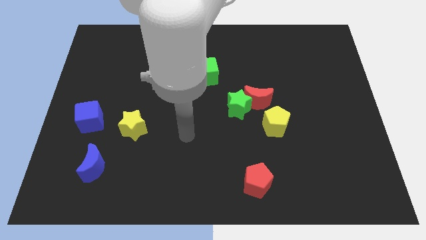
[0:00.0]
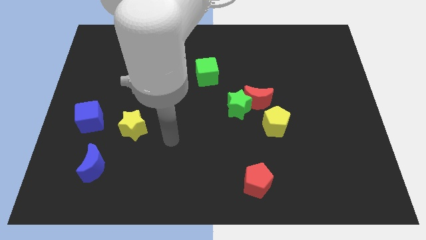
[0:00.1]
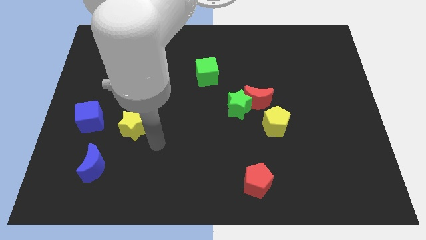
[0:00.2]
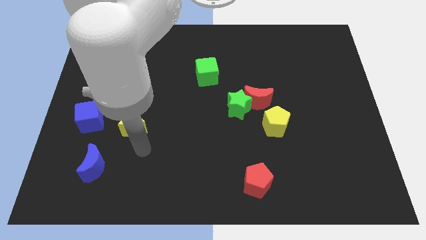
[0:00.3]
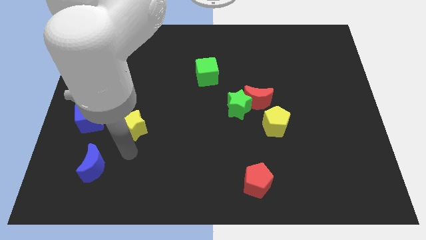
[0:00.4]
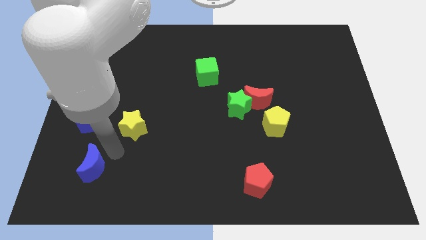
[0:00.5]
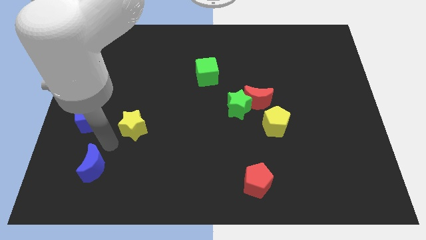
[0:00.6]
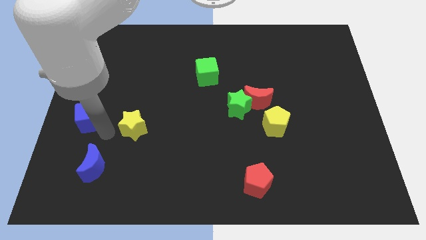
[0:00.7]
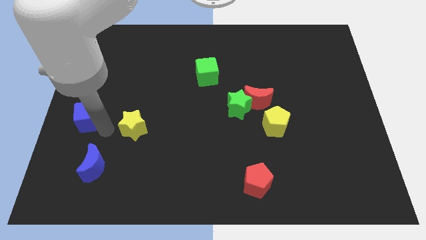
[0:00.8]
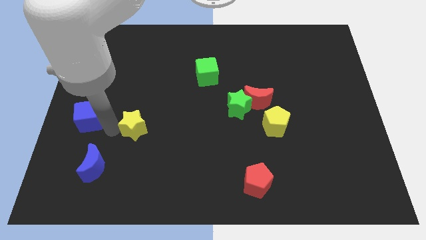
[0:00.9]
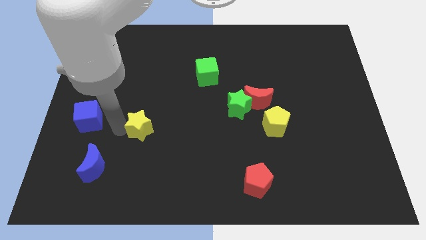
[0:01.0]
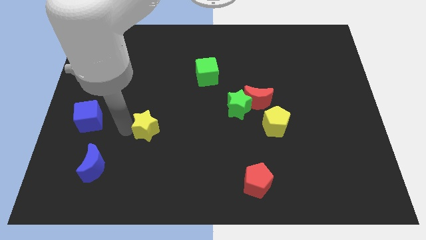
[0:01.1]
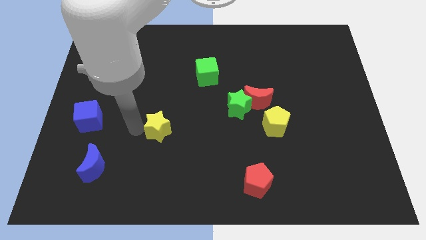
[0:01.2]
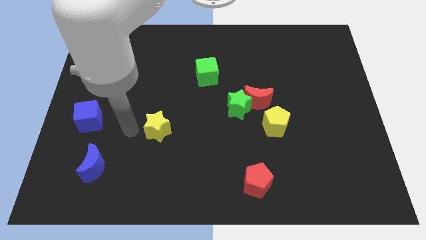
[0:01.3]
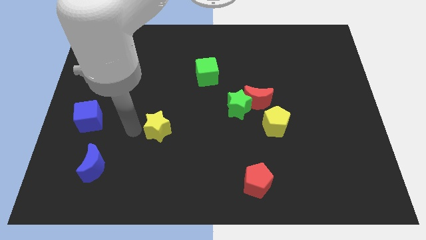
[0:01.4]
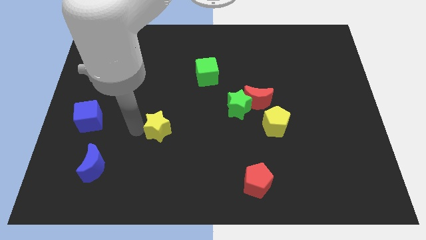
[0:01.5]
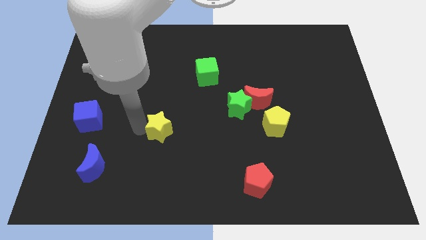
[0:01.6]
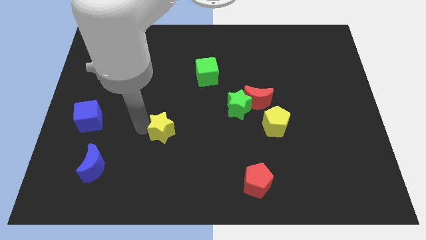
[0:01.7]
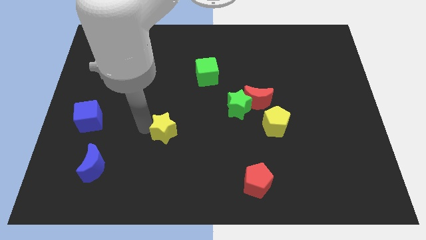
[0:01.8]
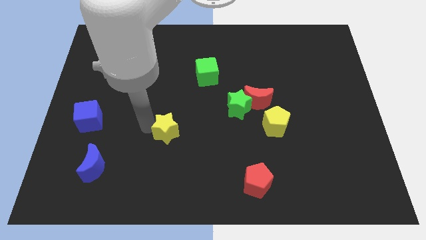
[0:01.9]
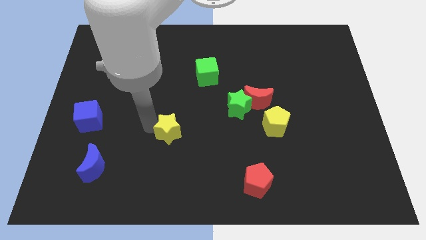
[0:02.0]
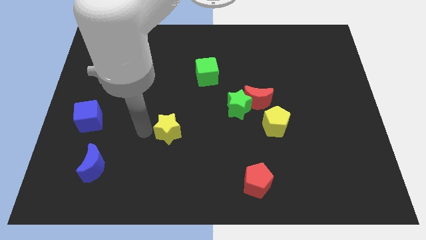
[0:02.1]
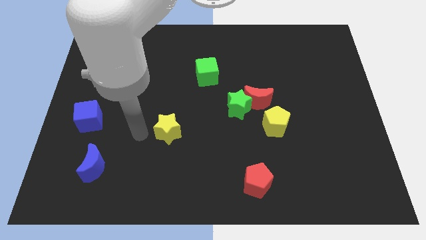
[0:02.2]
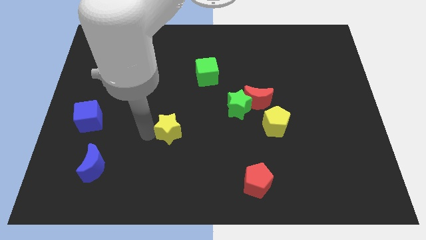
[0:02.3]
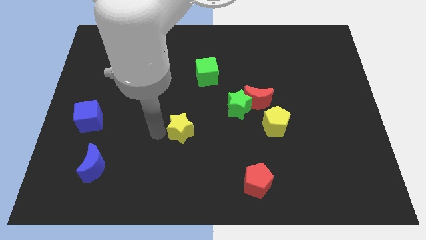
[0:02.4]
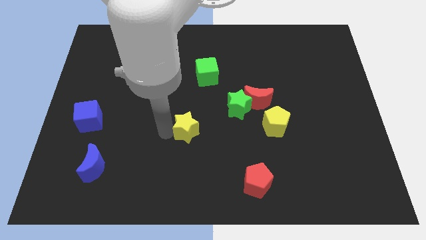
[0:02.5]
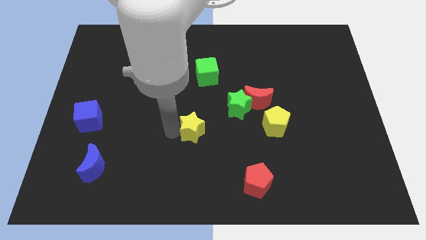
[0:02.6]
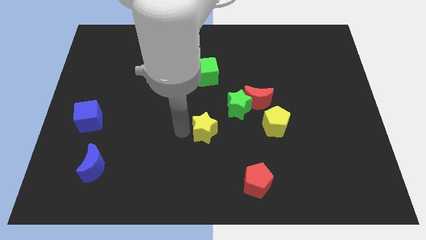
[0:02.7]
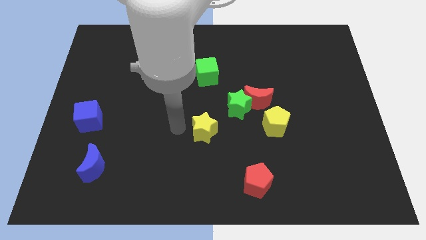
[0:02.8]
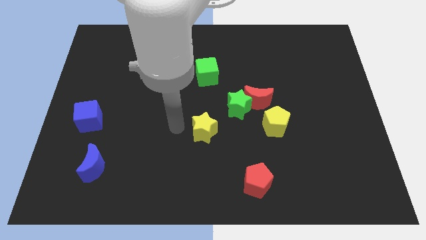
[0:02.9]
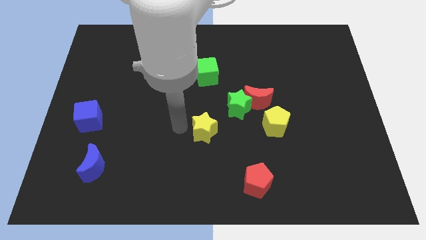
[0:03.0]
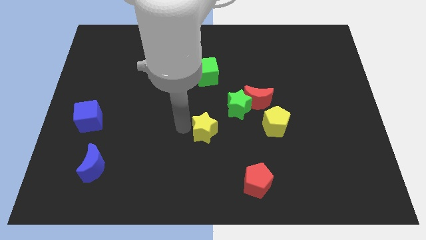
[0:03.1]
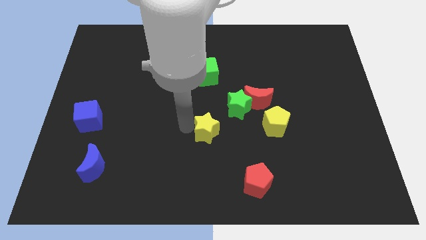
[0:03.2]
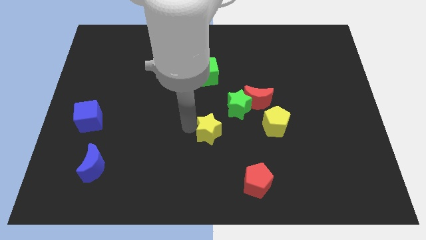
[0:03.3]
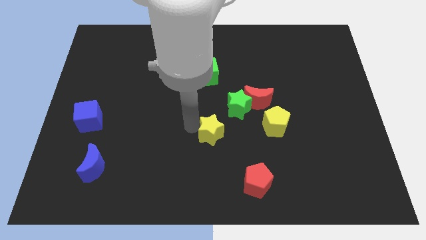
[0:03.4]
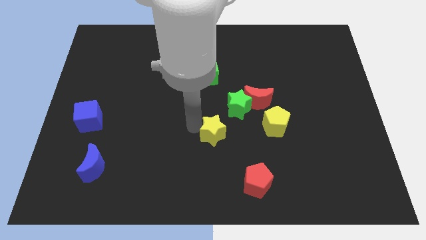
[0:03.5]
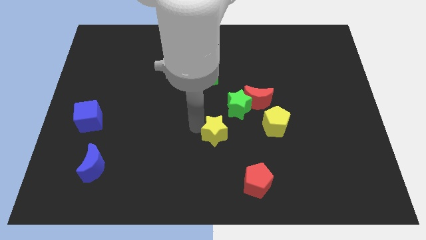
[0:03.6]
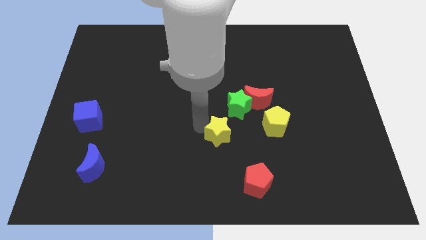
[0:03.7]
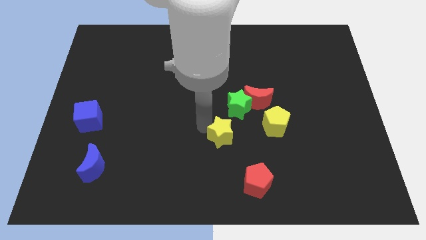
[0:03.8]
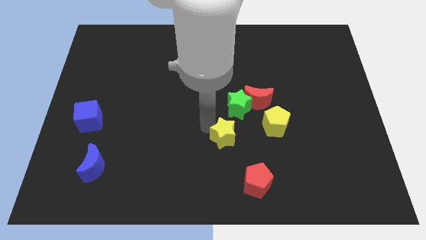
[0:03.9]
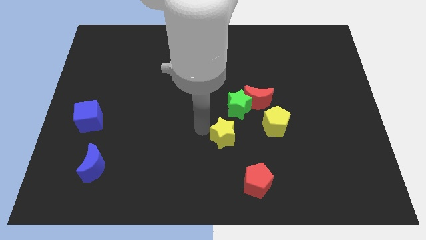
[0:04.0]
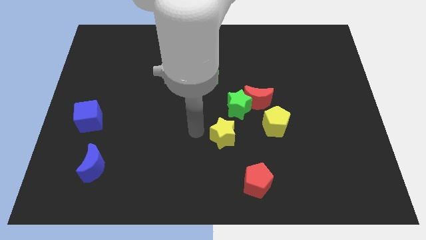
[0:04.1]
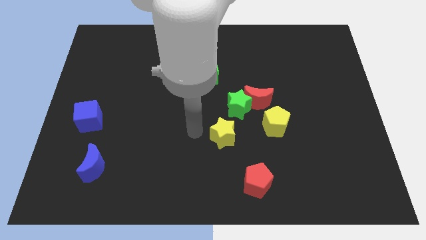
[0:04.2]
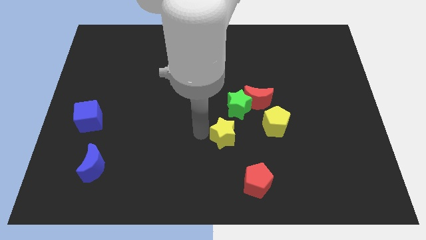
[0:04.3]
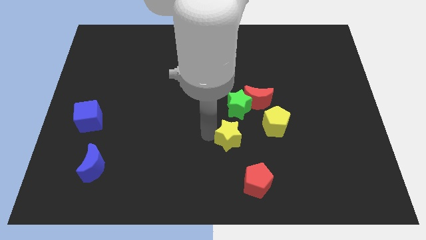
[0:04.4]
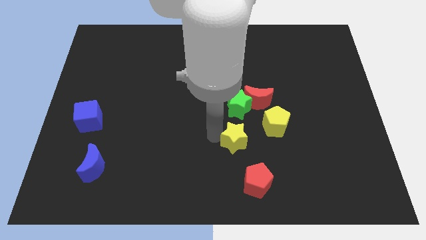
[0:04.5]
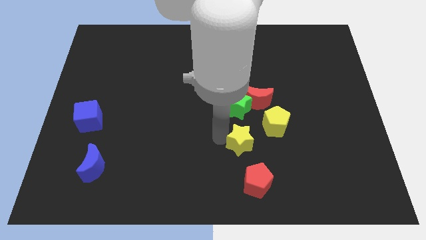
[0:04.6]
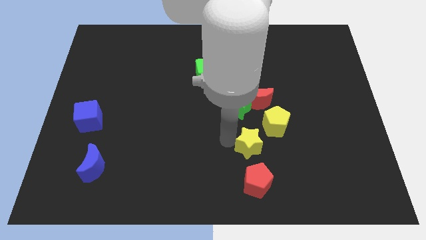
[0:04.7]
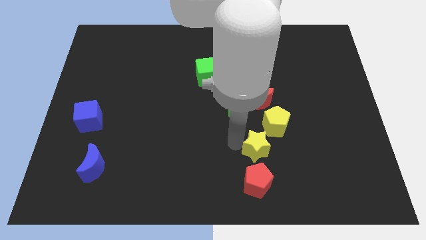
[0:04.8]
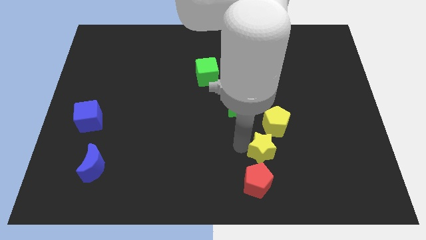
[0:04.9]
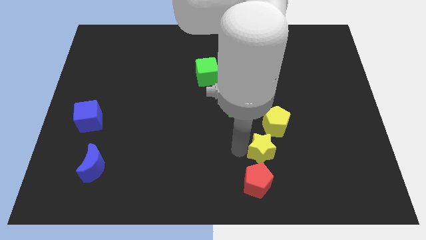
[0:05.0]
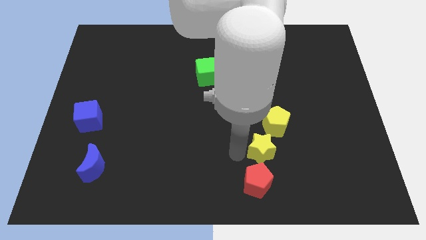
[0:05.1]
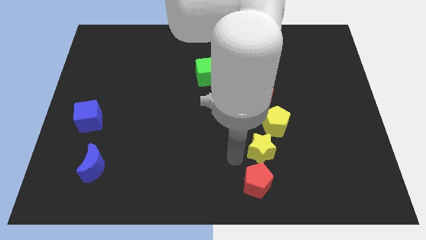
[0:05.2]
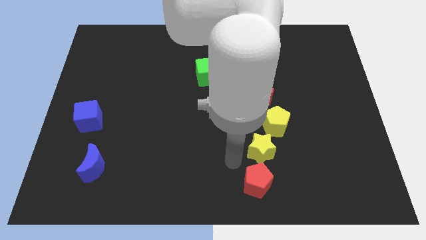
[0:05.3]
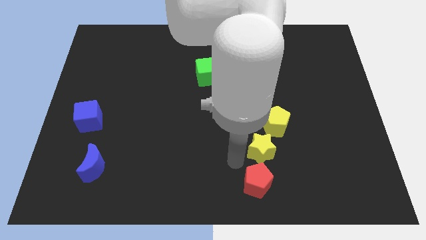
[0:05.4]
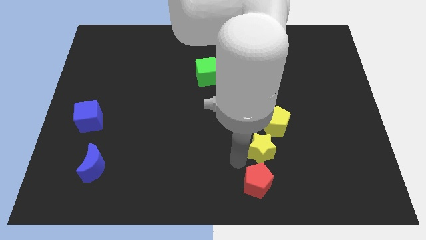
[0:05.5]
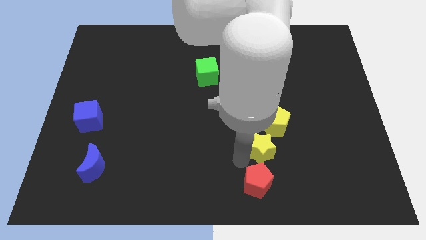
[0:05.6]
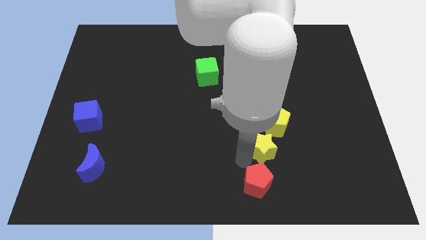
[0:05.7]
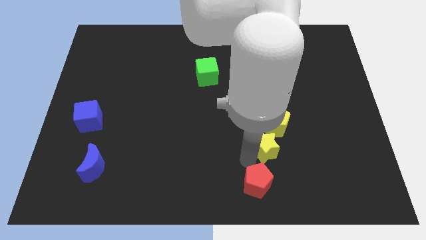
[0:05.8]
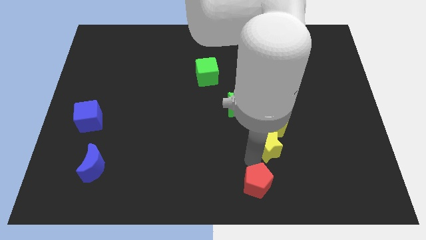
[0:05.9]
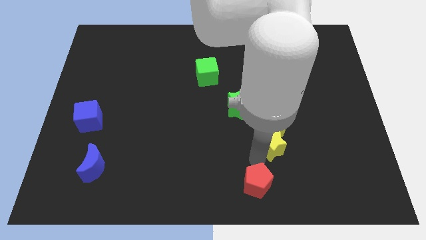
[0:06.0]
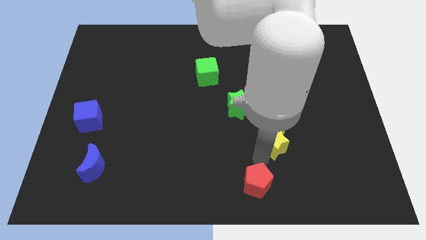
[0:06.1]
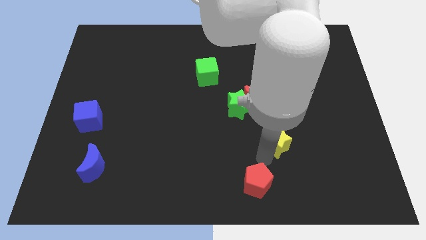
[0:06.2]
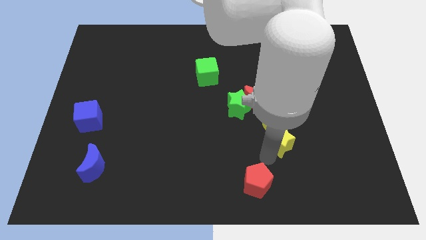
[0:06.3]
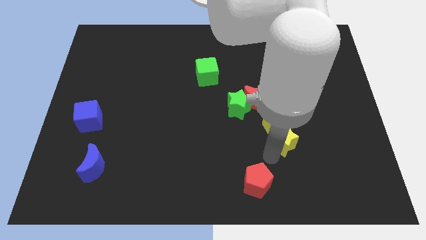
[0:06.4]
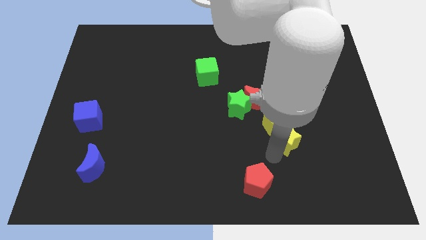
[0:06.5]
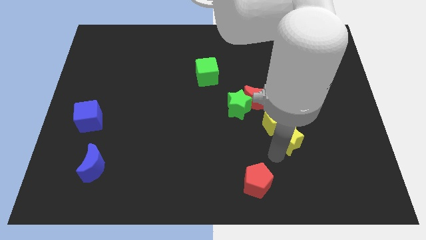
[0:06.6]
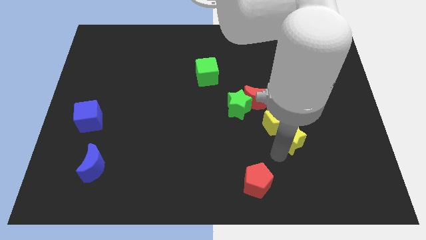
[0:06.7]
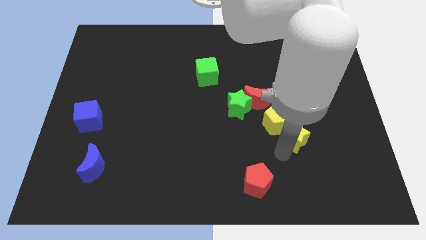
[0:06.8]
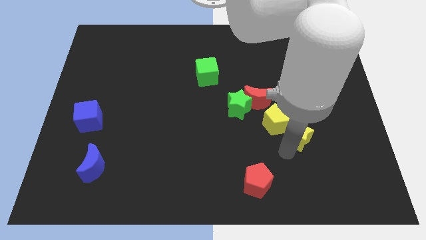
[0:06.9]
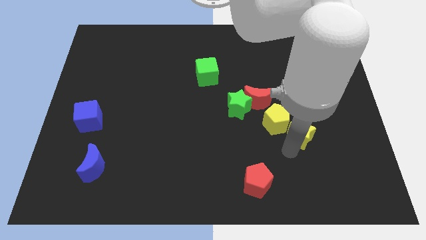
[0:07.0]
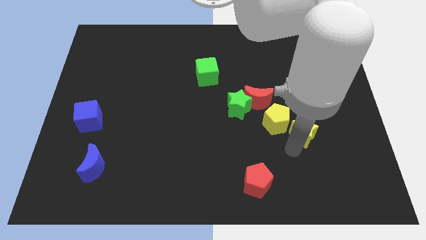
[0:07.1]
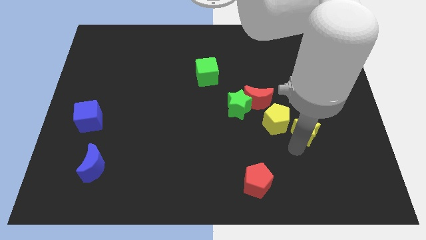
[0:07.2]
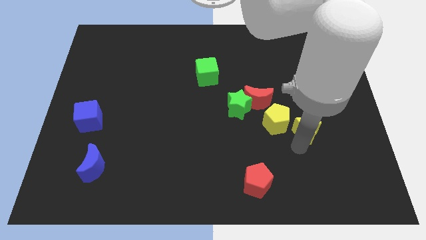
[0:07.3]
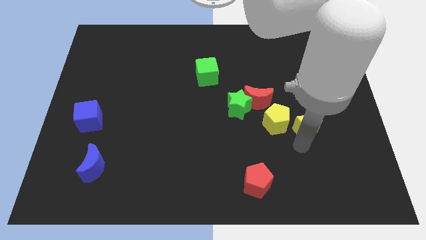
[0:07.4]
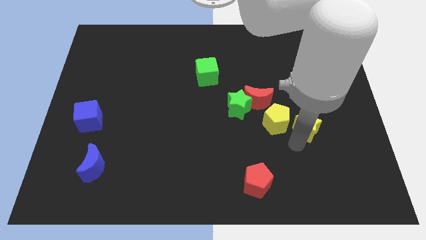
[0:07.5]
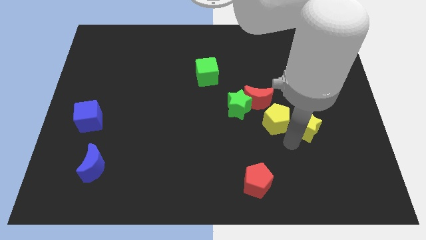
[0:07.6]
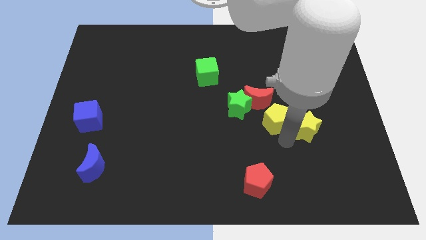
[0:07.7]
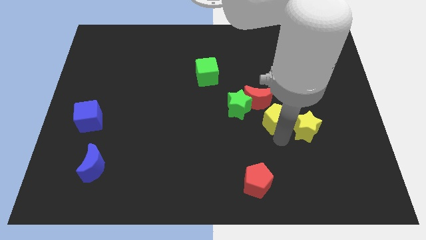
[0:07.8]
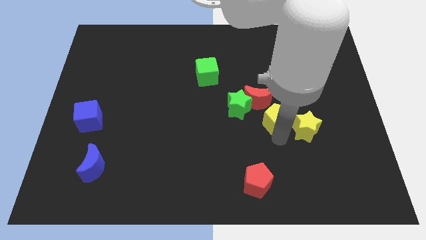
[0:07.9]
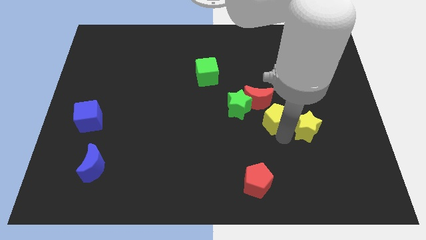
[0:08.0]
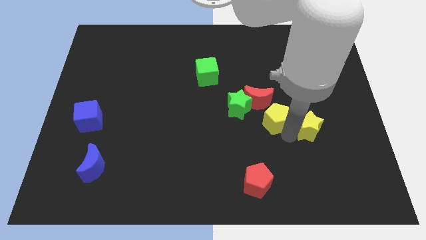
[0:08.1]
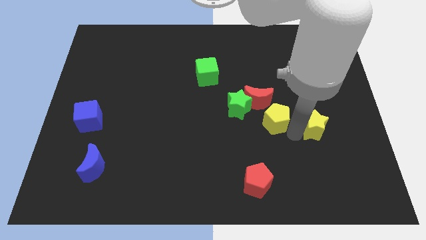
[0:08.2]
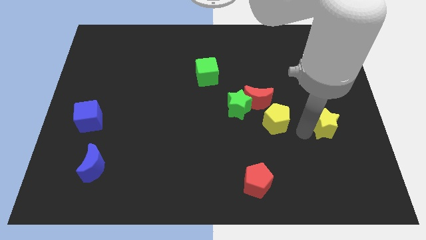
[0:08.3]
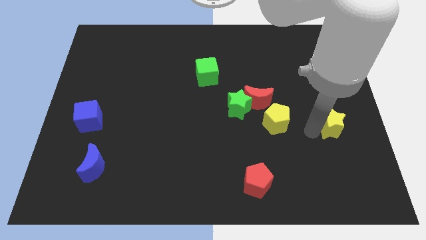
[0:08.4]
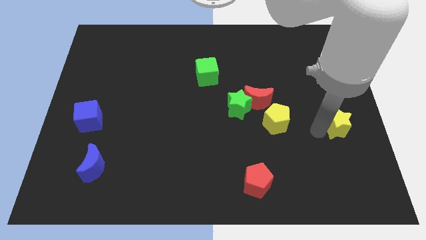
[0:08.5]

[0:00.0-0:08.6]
move the yellow star to the center right
